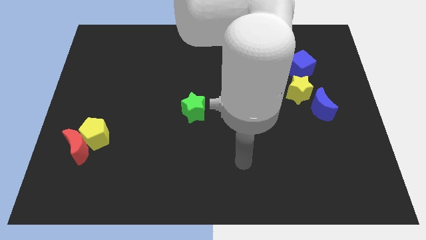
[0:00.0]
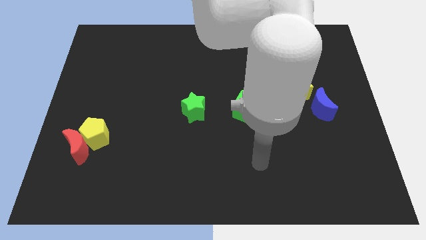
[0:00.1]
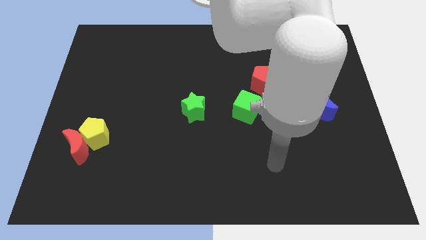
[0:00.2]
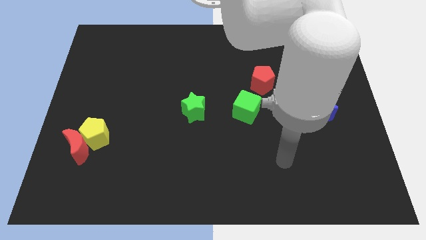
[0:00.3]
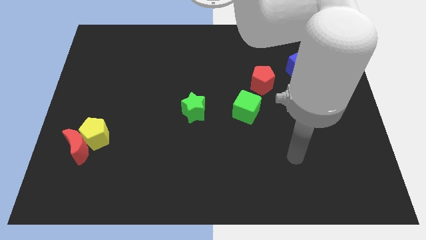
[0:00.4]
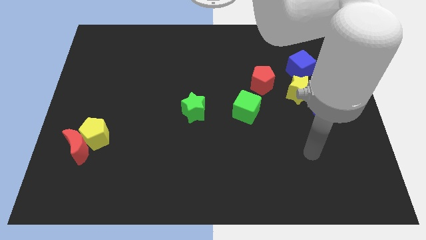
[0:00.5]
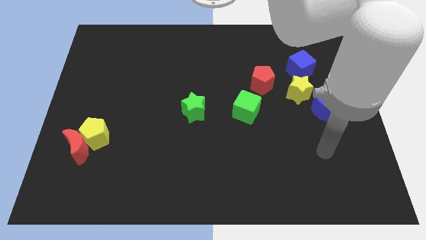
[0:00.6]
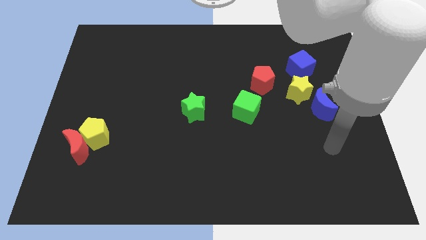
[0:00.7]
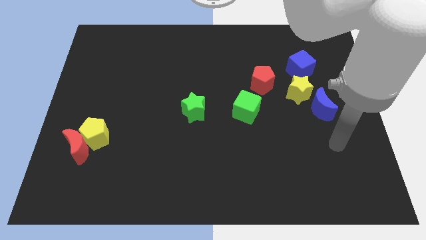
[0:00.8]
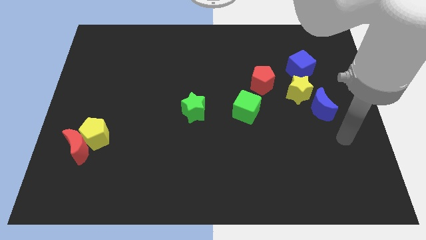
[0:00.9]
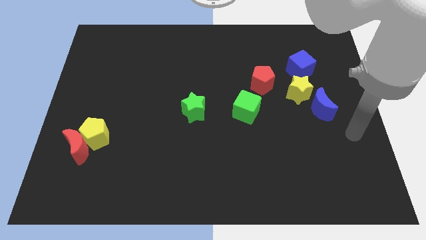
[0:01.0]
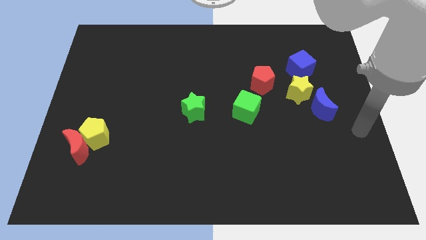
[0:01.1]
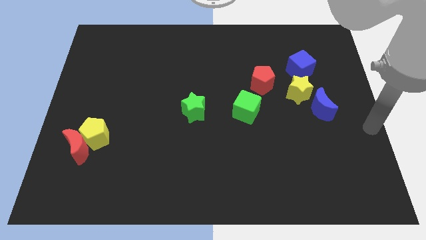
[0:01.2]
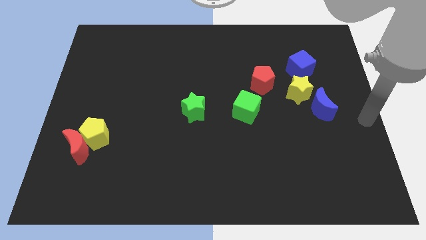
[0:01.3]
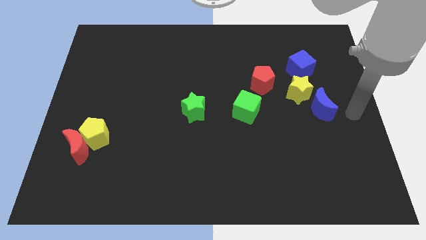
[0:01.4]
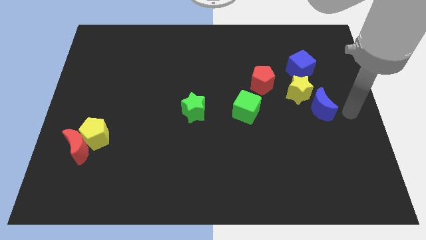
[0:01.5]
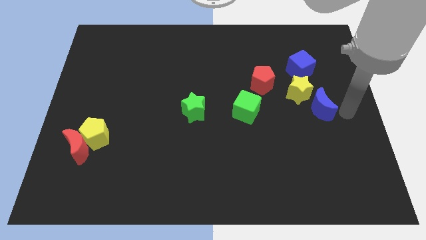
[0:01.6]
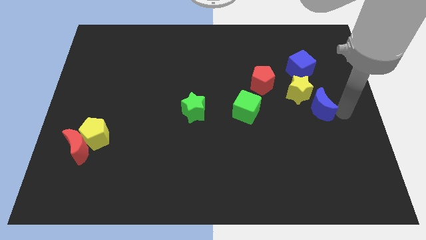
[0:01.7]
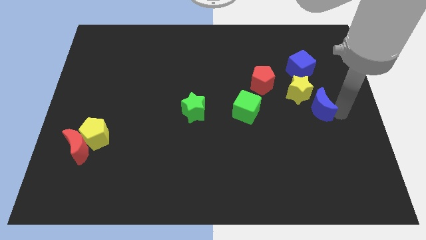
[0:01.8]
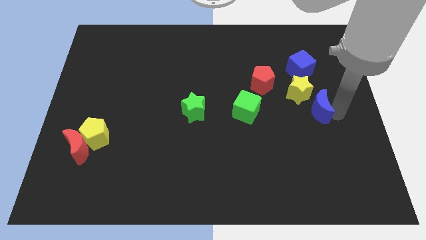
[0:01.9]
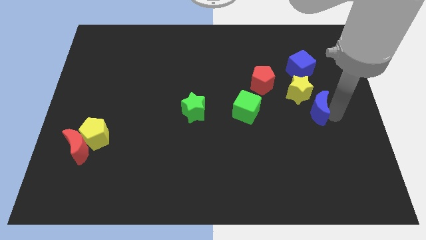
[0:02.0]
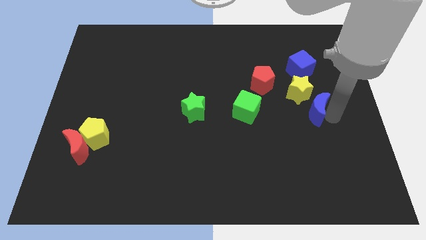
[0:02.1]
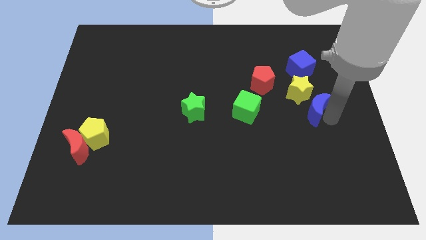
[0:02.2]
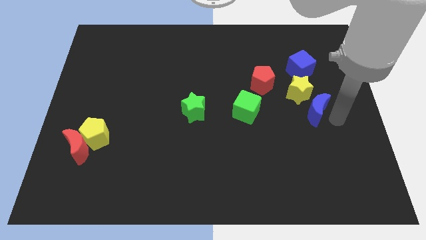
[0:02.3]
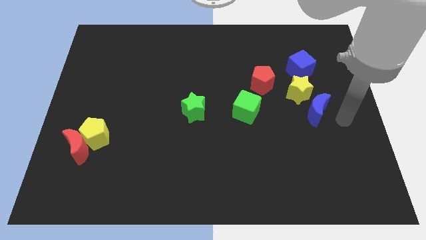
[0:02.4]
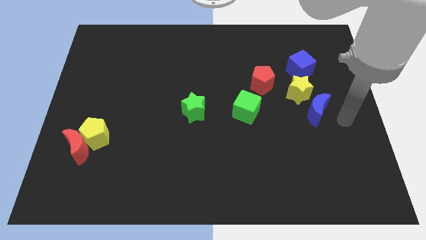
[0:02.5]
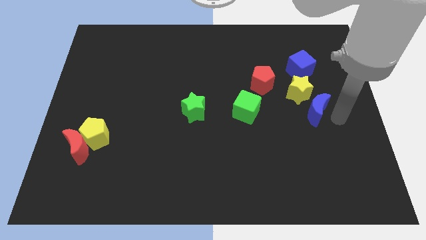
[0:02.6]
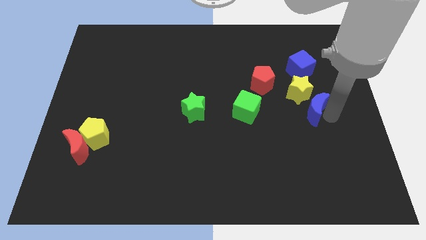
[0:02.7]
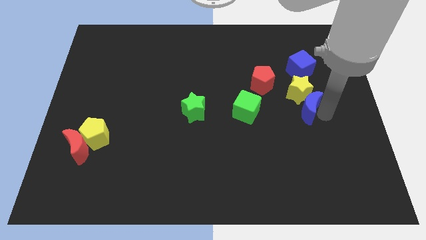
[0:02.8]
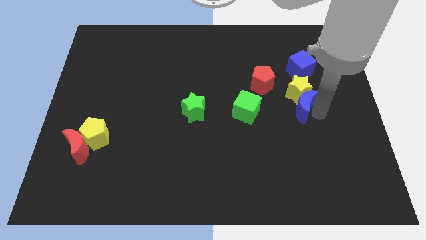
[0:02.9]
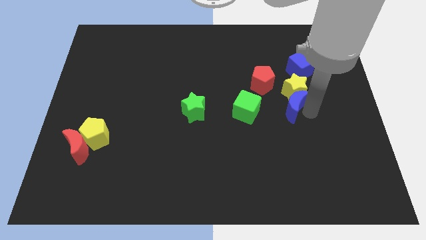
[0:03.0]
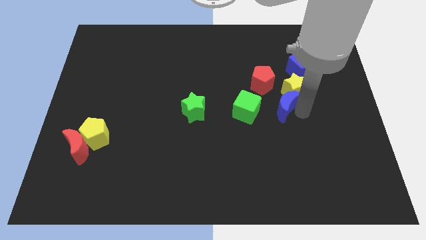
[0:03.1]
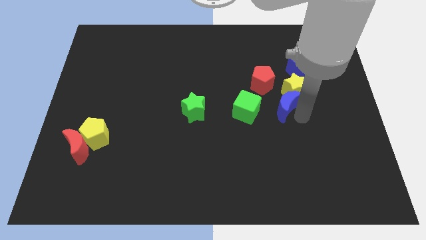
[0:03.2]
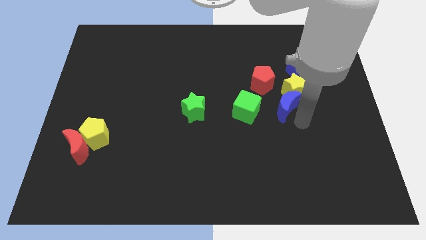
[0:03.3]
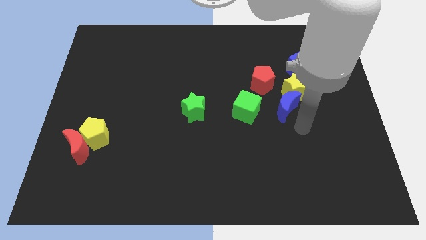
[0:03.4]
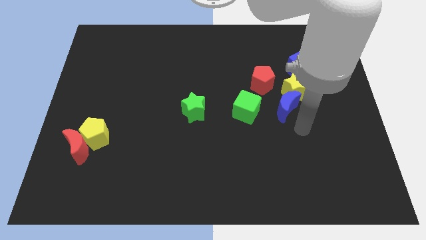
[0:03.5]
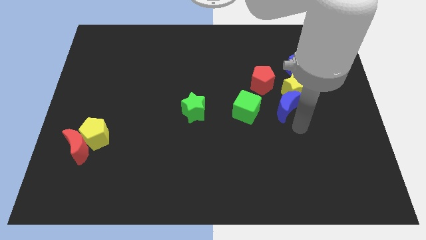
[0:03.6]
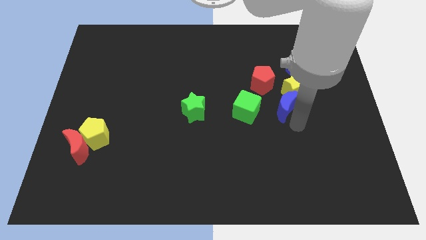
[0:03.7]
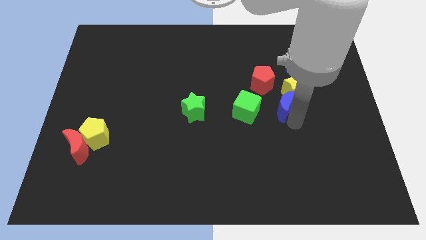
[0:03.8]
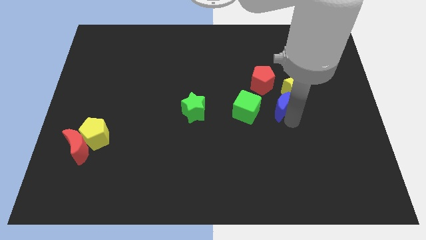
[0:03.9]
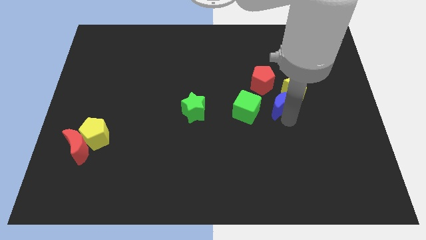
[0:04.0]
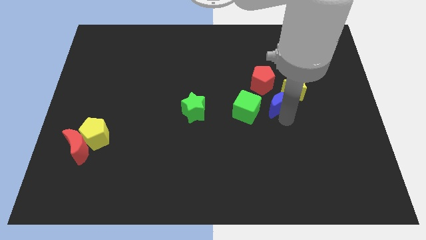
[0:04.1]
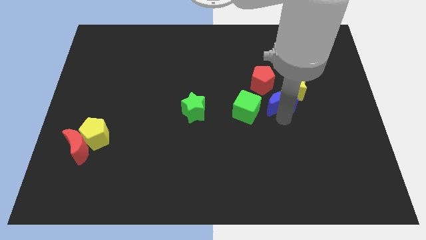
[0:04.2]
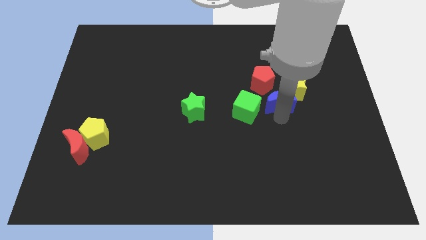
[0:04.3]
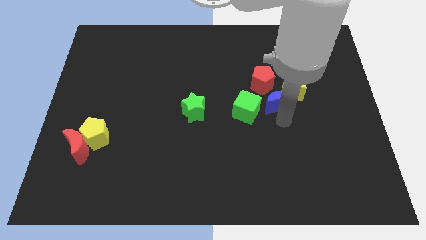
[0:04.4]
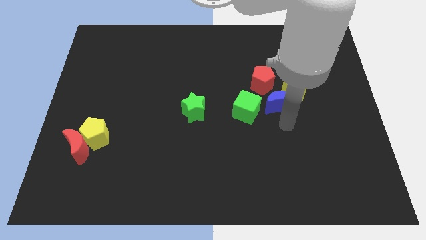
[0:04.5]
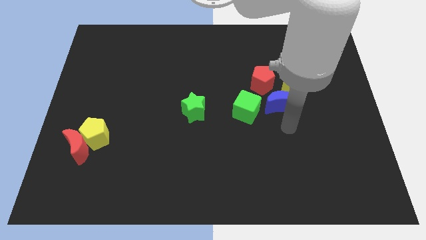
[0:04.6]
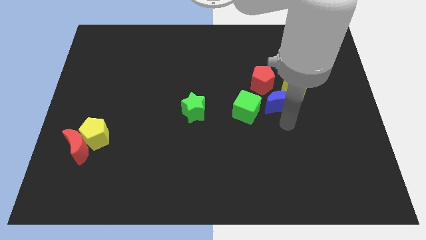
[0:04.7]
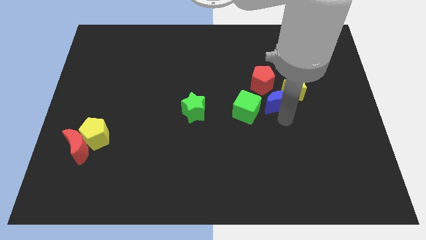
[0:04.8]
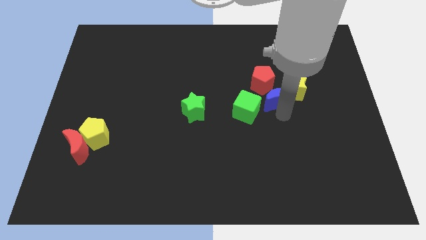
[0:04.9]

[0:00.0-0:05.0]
slightly slide the blue moon upwards and left

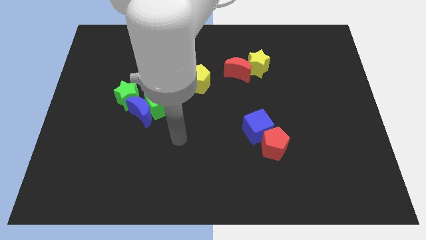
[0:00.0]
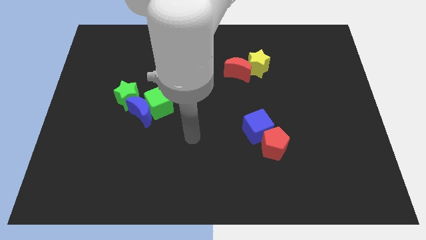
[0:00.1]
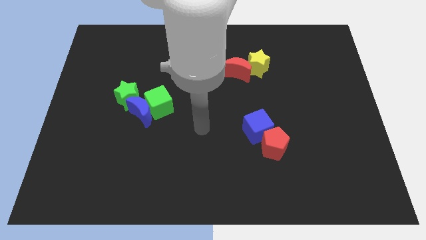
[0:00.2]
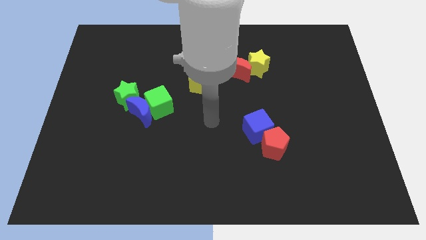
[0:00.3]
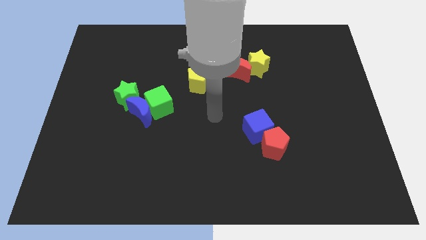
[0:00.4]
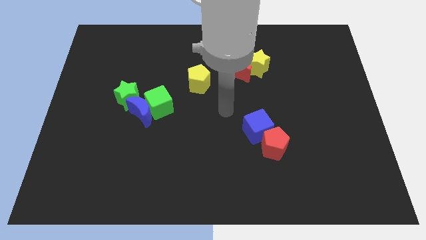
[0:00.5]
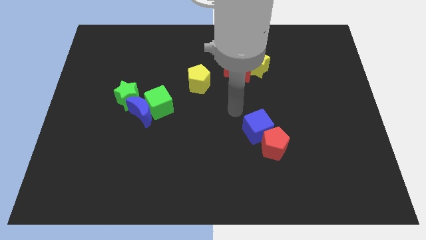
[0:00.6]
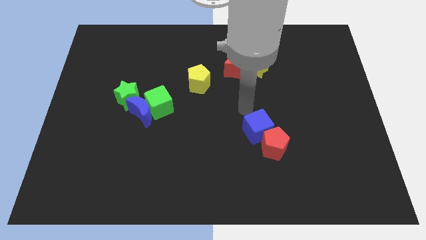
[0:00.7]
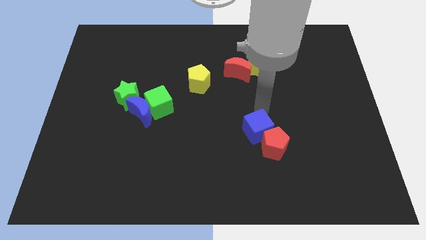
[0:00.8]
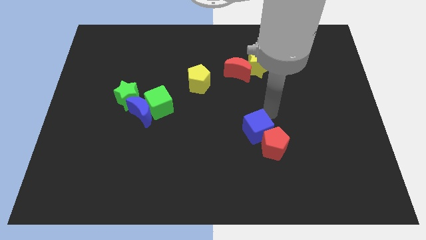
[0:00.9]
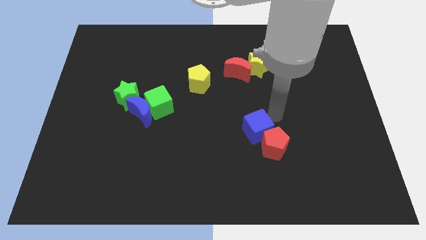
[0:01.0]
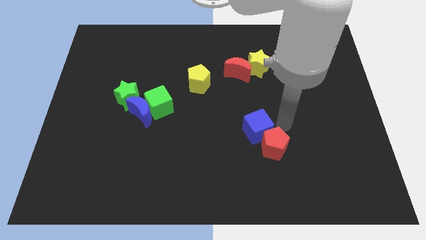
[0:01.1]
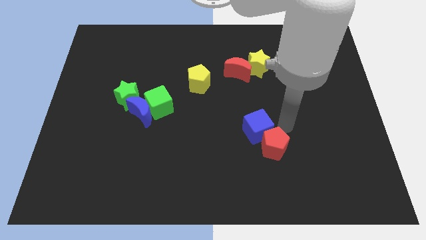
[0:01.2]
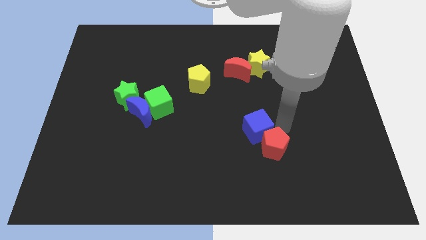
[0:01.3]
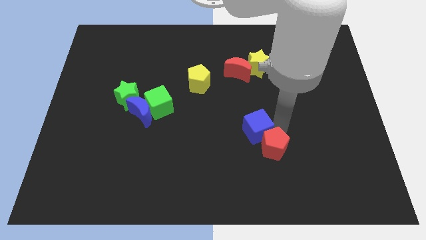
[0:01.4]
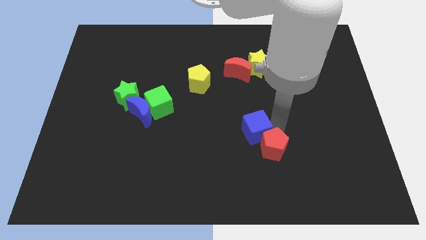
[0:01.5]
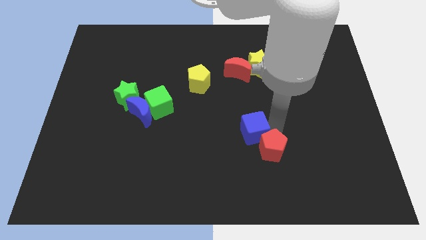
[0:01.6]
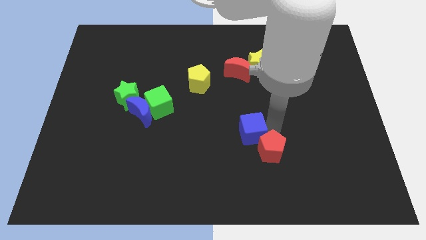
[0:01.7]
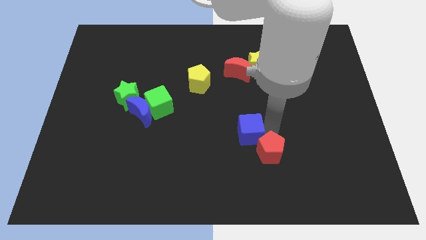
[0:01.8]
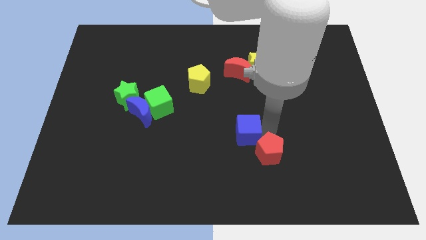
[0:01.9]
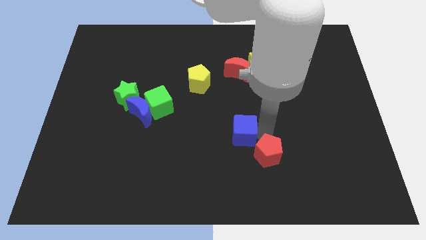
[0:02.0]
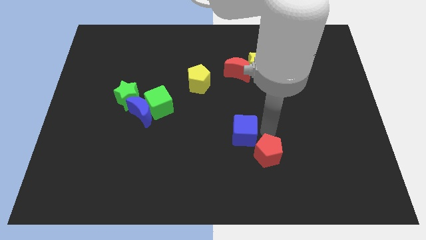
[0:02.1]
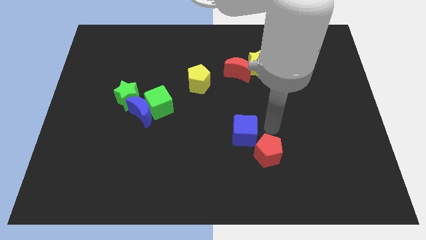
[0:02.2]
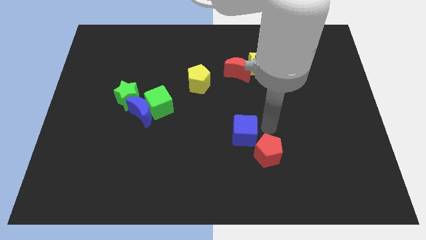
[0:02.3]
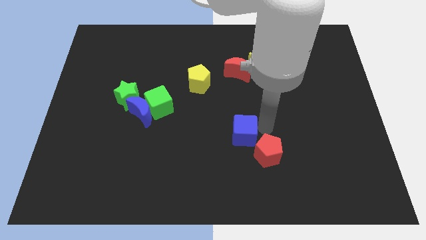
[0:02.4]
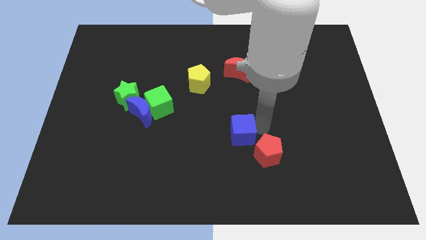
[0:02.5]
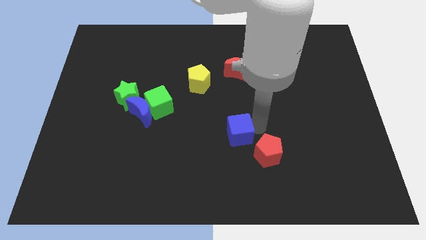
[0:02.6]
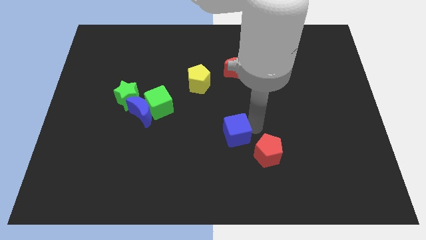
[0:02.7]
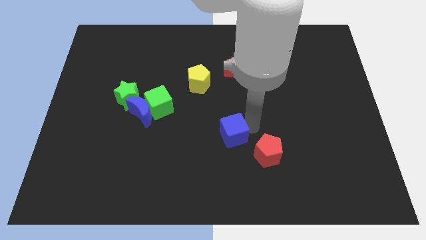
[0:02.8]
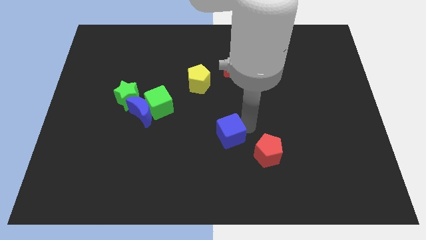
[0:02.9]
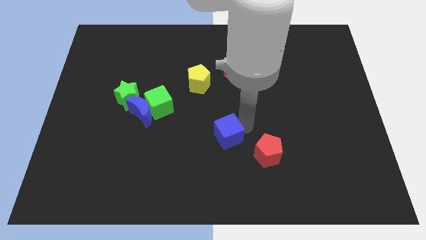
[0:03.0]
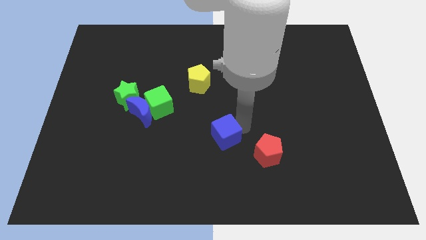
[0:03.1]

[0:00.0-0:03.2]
slightly push the blue cube to the left
